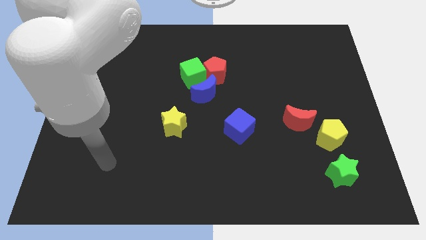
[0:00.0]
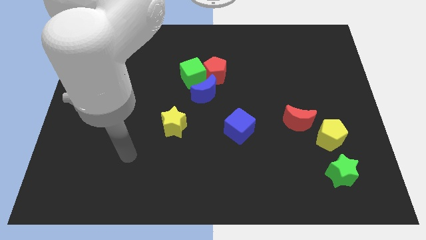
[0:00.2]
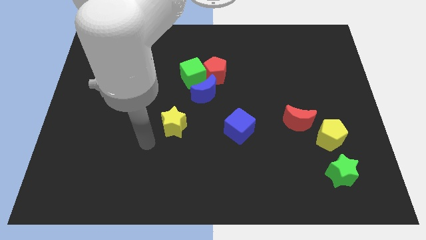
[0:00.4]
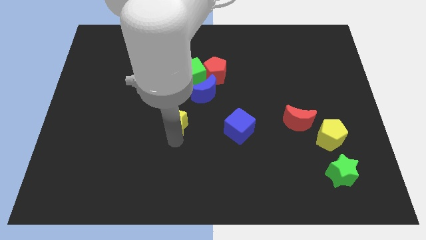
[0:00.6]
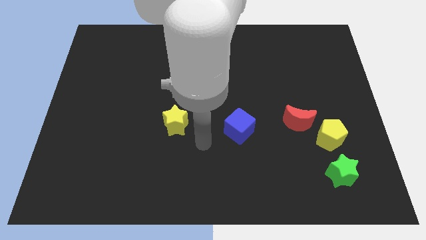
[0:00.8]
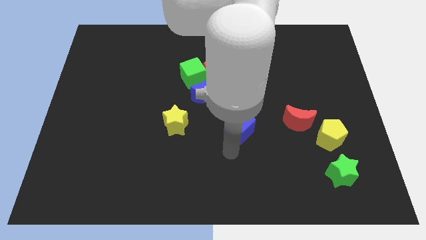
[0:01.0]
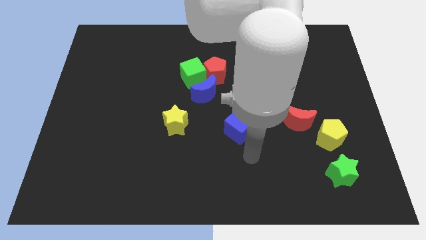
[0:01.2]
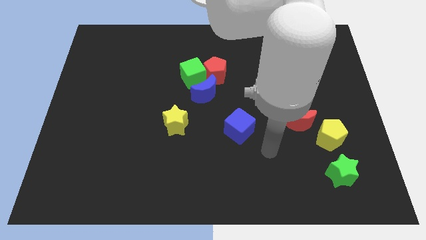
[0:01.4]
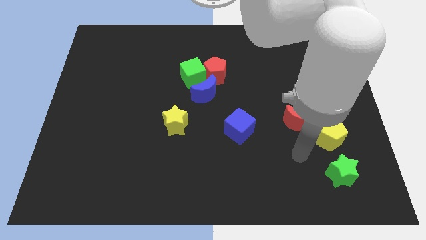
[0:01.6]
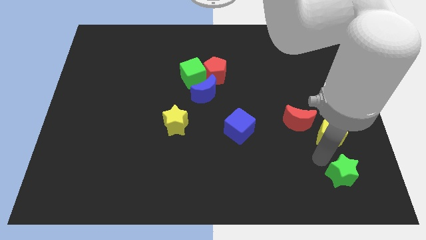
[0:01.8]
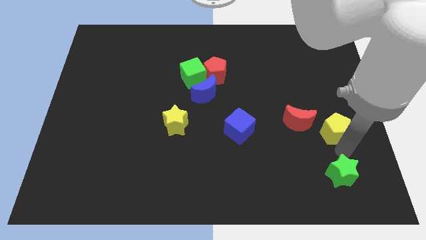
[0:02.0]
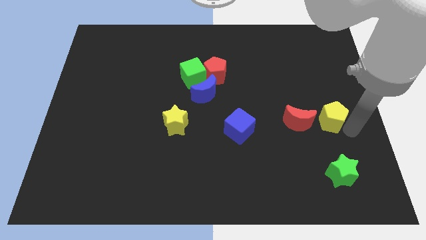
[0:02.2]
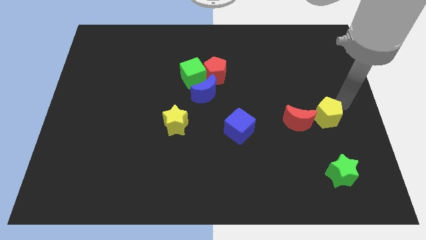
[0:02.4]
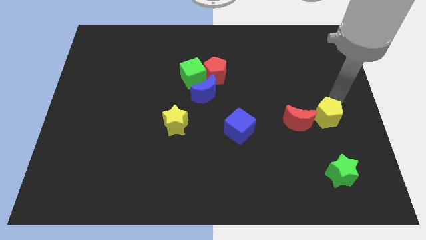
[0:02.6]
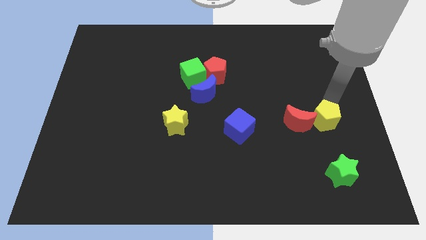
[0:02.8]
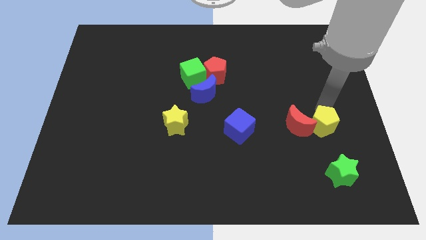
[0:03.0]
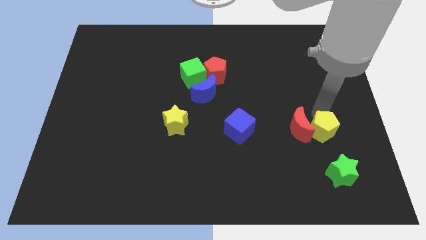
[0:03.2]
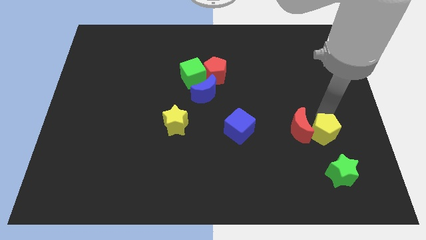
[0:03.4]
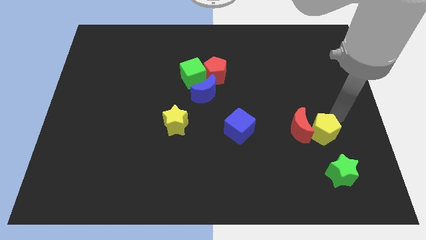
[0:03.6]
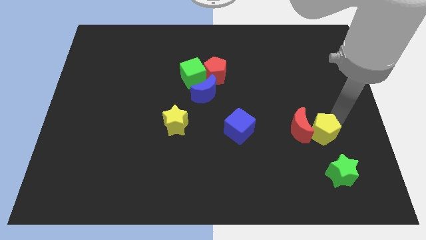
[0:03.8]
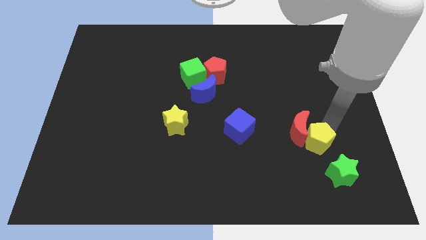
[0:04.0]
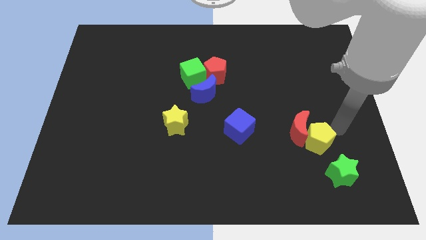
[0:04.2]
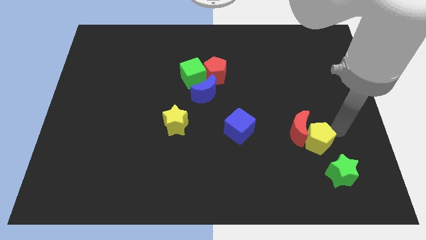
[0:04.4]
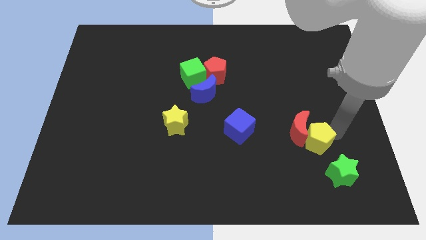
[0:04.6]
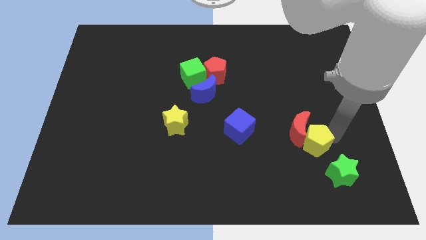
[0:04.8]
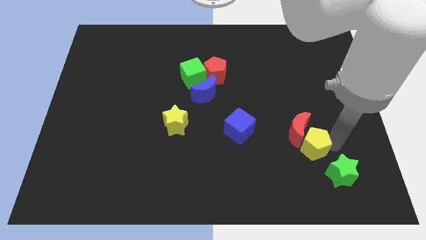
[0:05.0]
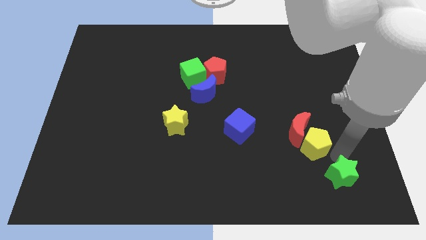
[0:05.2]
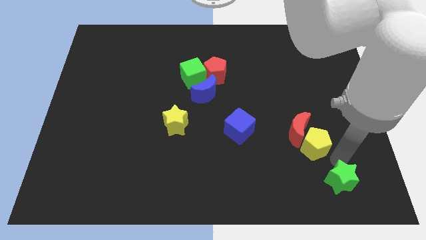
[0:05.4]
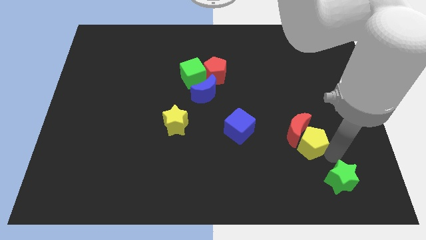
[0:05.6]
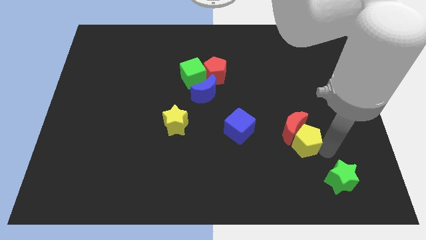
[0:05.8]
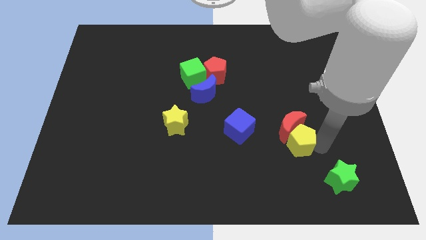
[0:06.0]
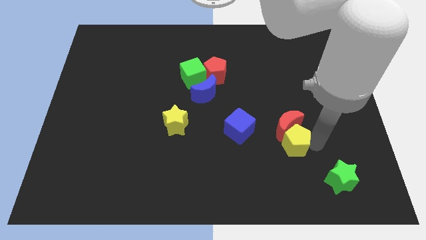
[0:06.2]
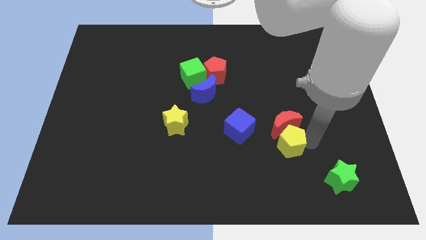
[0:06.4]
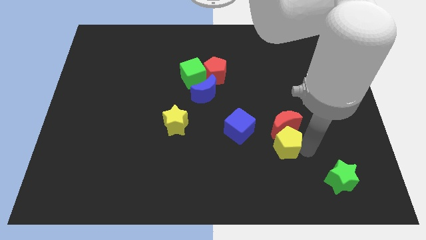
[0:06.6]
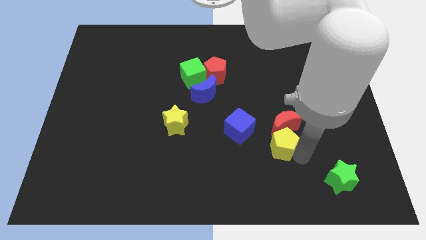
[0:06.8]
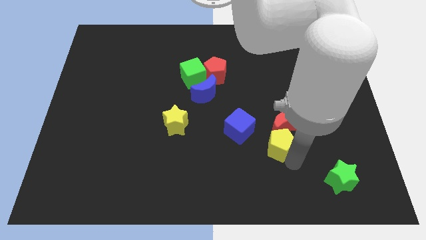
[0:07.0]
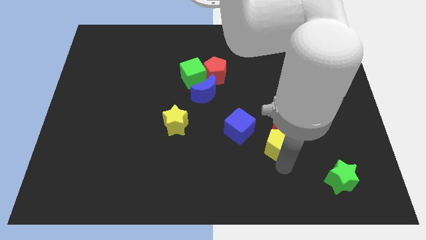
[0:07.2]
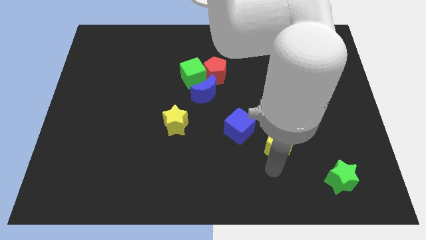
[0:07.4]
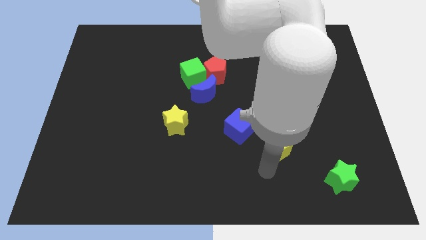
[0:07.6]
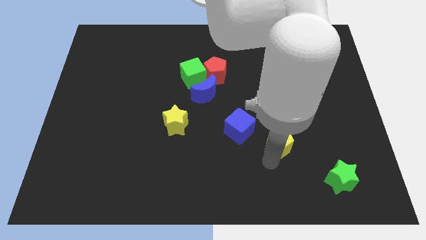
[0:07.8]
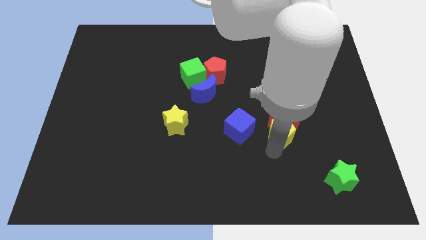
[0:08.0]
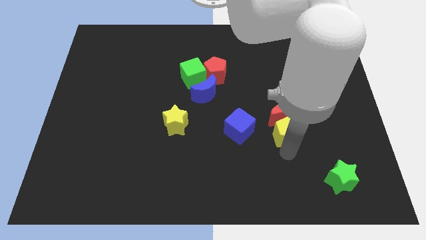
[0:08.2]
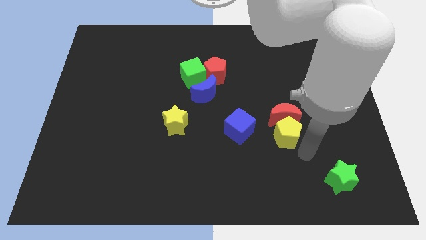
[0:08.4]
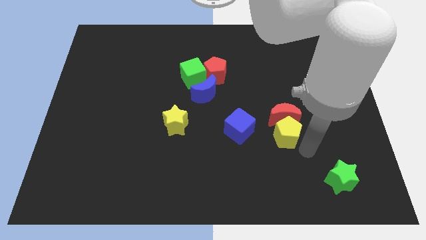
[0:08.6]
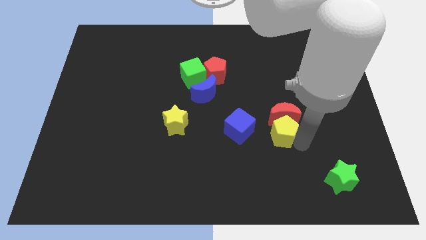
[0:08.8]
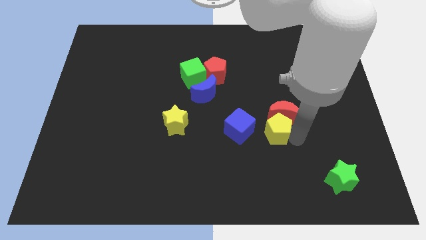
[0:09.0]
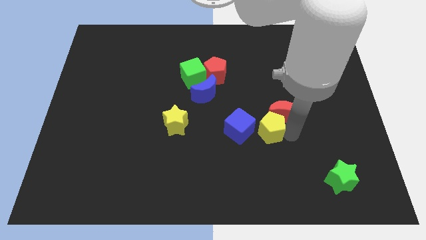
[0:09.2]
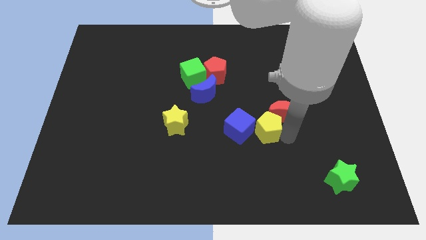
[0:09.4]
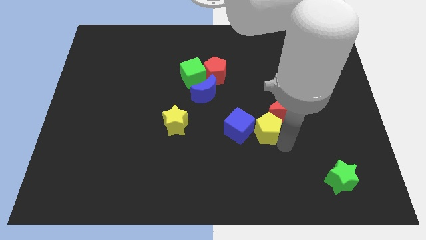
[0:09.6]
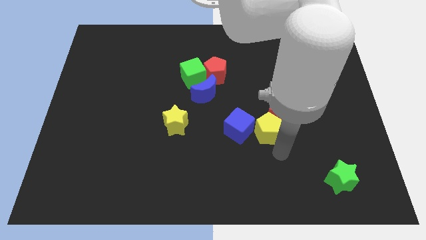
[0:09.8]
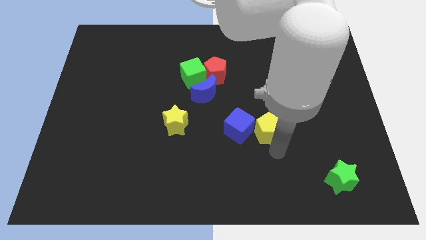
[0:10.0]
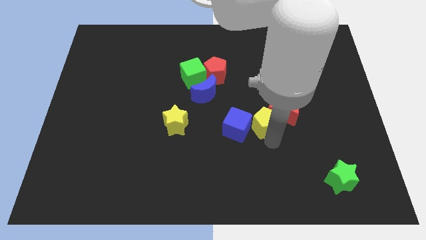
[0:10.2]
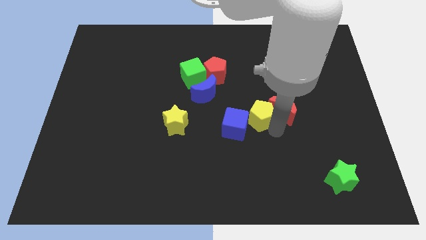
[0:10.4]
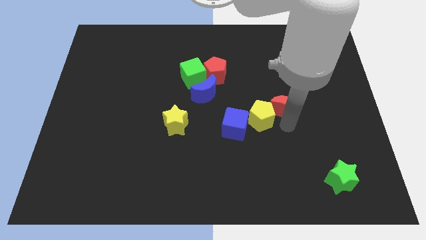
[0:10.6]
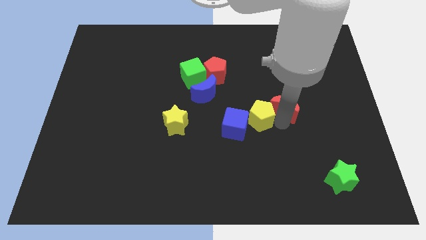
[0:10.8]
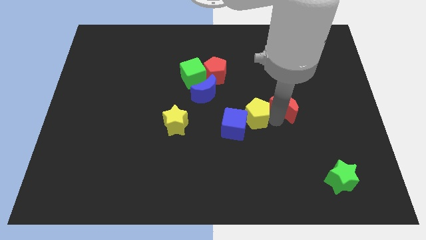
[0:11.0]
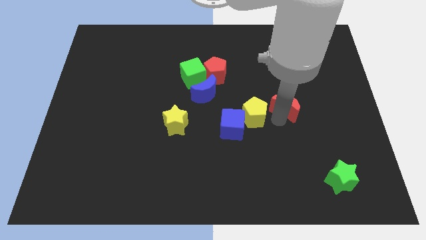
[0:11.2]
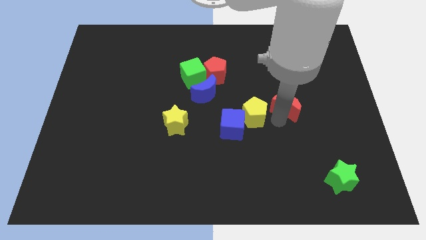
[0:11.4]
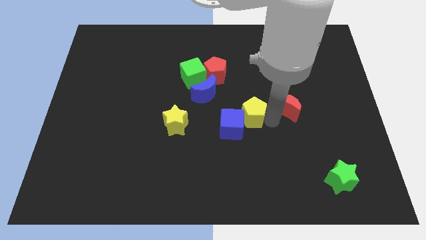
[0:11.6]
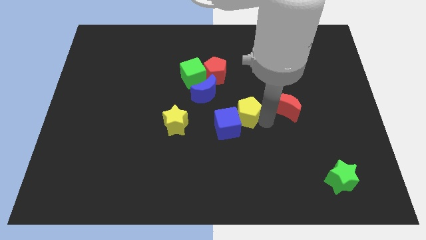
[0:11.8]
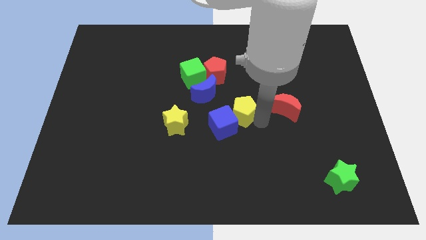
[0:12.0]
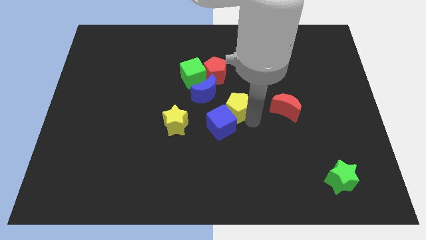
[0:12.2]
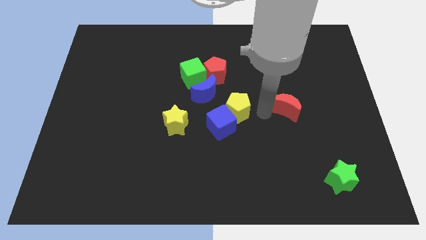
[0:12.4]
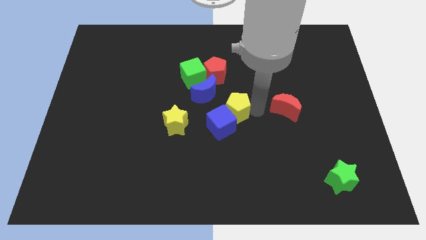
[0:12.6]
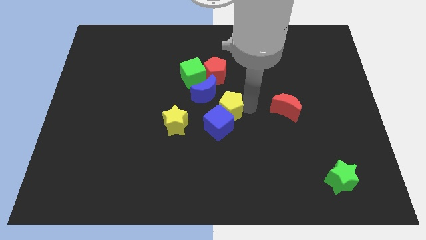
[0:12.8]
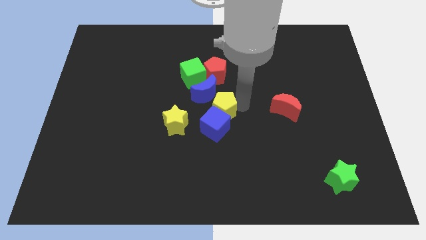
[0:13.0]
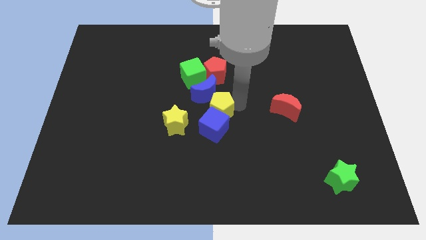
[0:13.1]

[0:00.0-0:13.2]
move the yellow pentagon to the top left side of the blue cube
